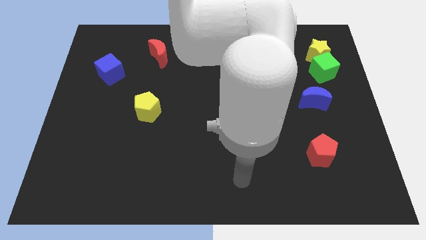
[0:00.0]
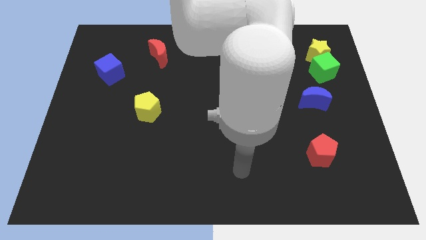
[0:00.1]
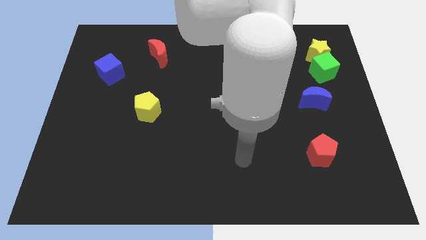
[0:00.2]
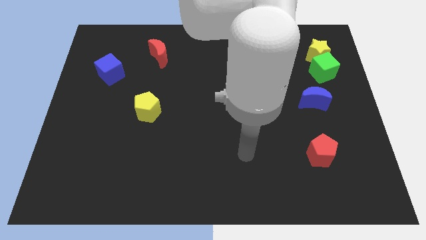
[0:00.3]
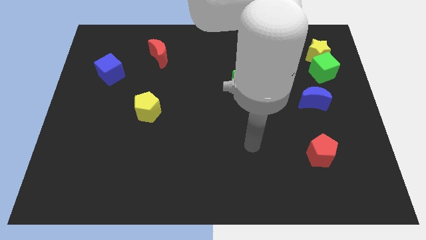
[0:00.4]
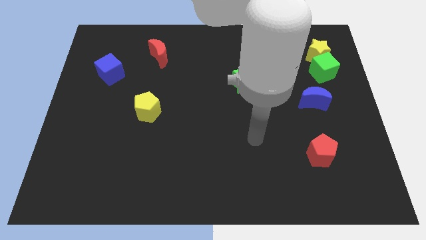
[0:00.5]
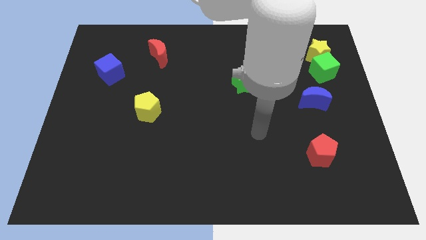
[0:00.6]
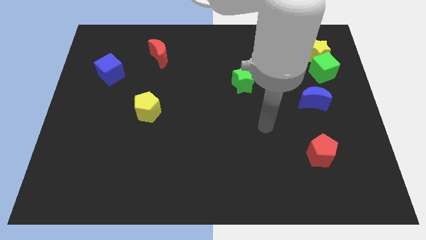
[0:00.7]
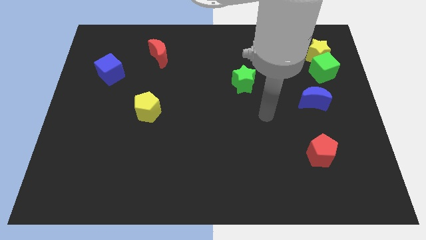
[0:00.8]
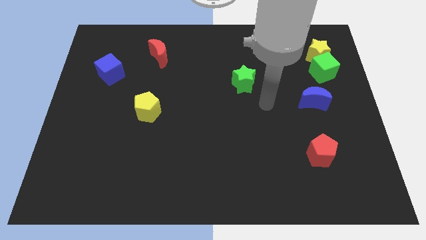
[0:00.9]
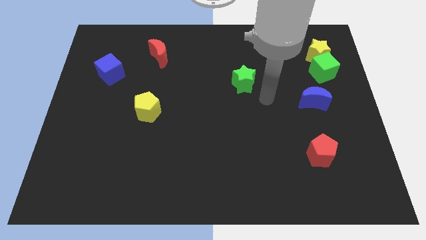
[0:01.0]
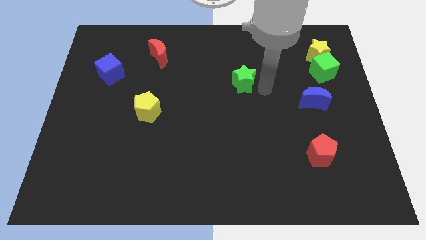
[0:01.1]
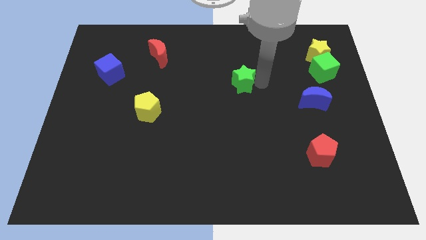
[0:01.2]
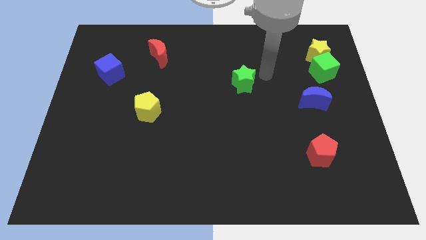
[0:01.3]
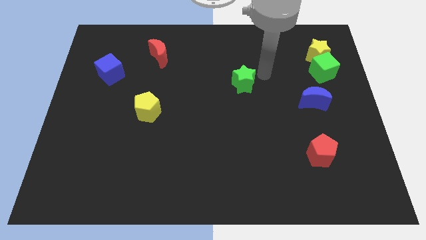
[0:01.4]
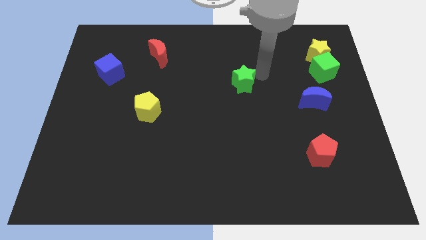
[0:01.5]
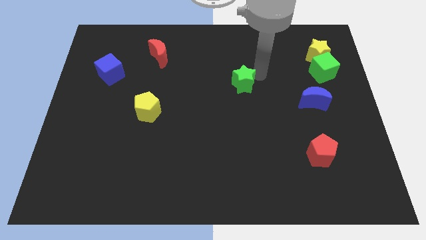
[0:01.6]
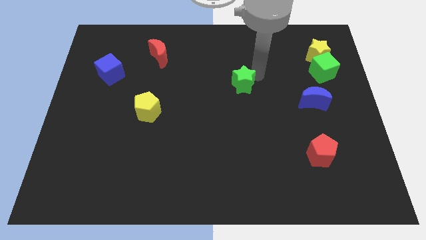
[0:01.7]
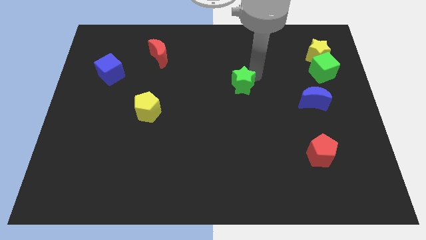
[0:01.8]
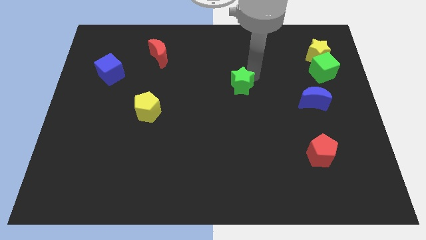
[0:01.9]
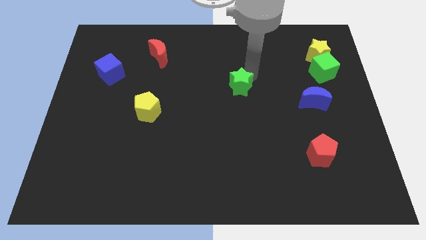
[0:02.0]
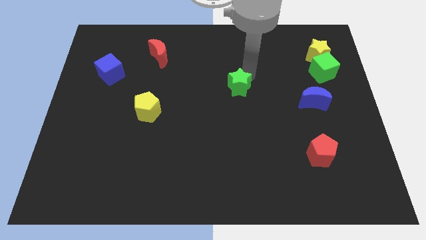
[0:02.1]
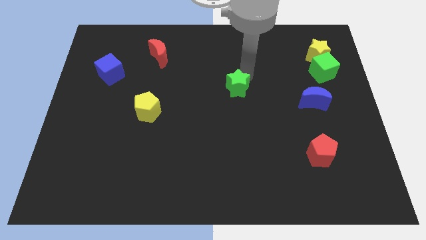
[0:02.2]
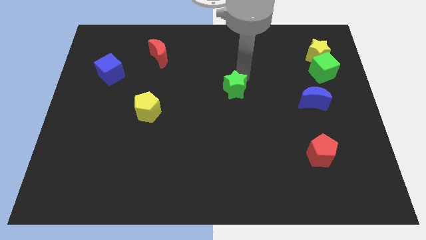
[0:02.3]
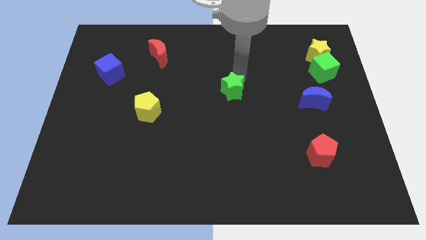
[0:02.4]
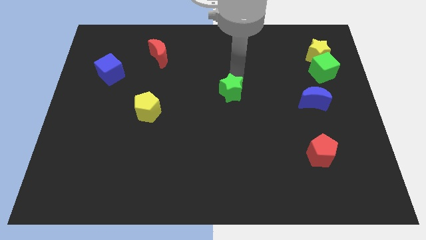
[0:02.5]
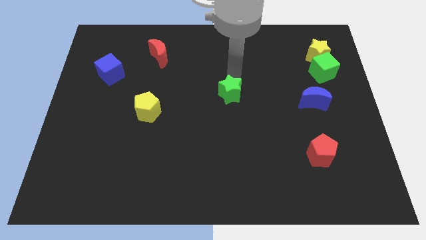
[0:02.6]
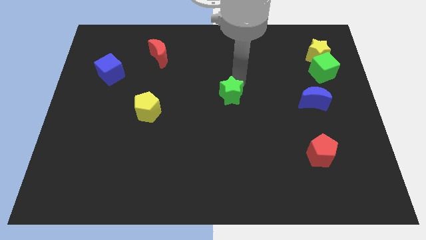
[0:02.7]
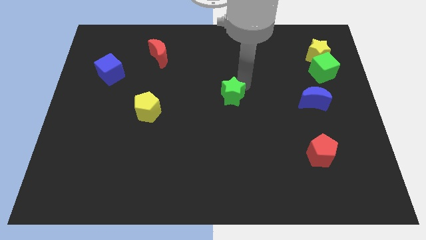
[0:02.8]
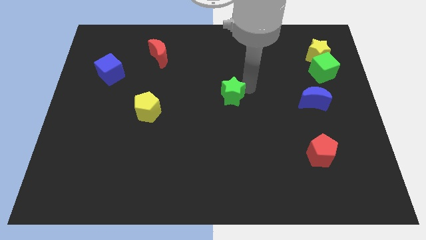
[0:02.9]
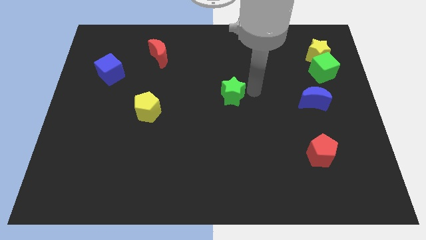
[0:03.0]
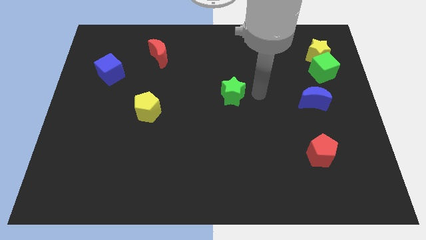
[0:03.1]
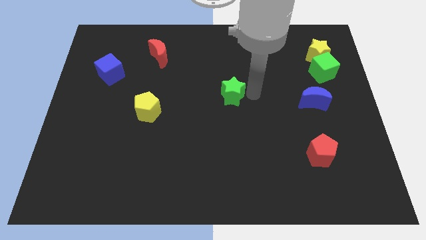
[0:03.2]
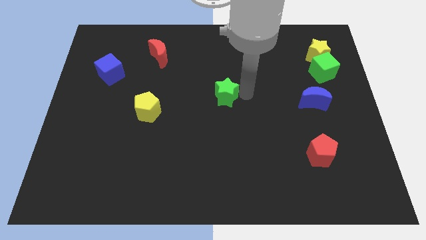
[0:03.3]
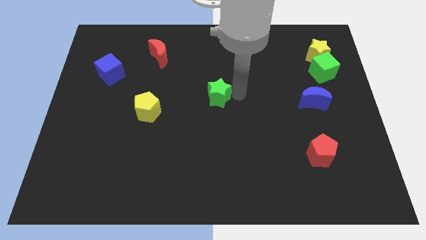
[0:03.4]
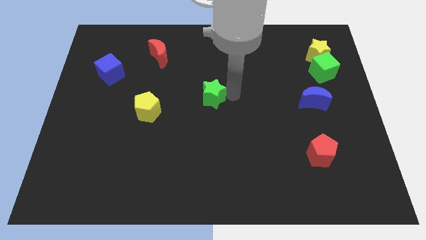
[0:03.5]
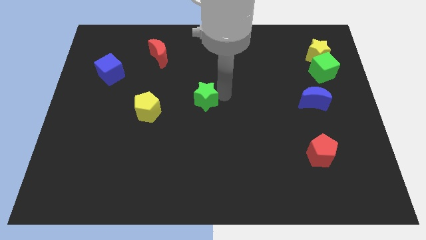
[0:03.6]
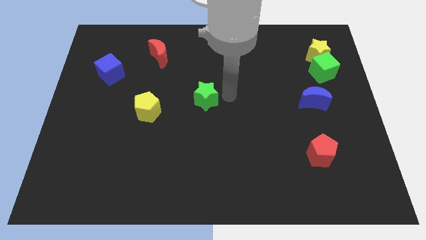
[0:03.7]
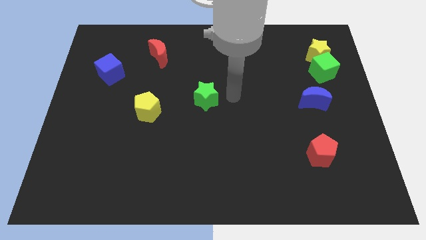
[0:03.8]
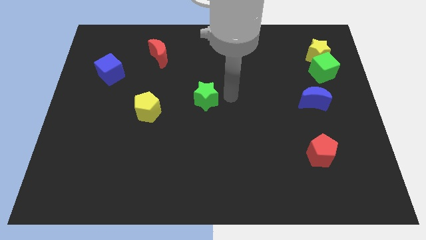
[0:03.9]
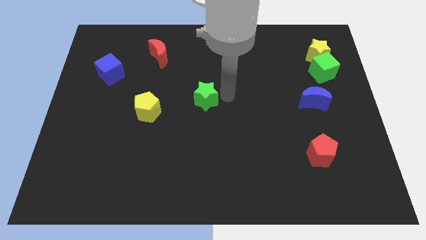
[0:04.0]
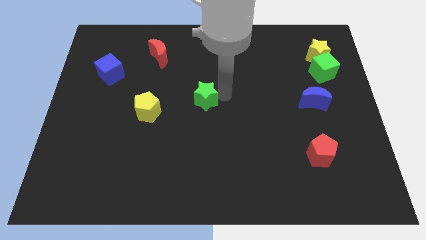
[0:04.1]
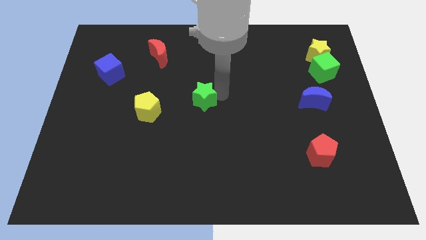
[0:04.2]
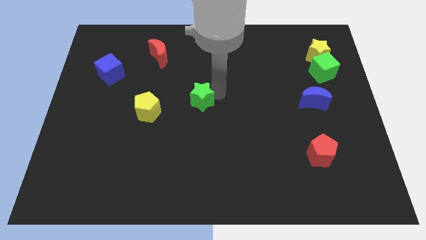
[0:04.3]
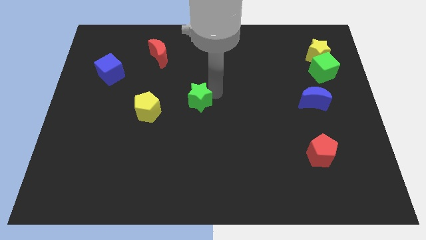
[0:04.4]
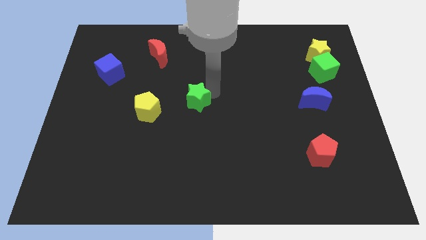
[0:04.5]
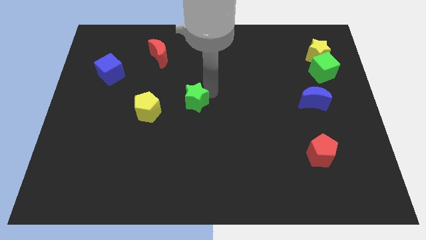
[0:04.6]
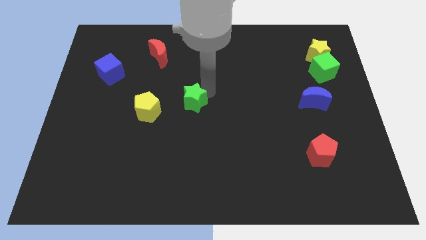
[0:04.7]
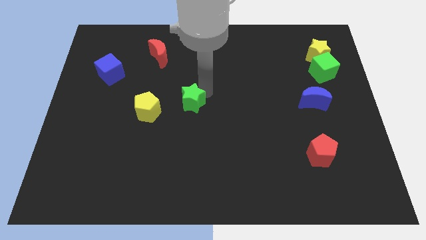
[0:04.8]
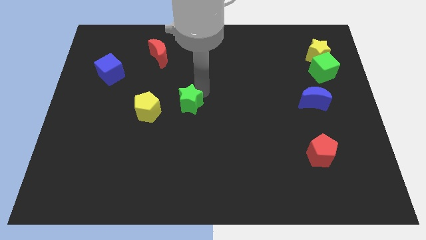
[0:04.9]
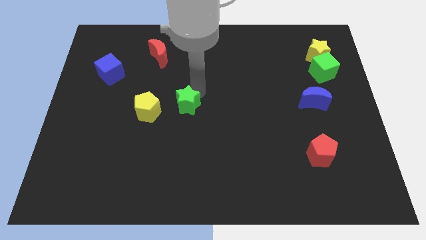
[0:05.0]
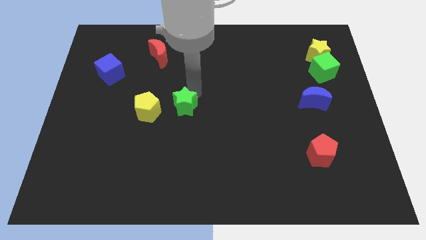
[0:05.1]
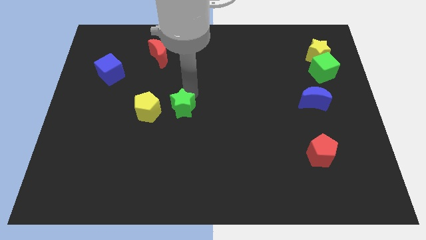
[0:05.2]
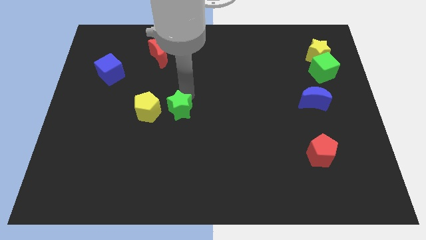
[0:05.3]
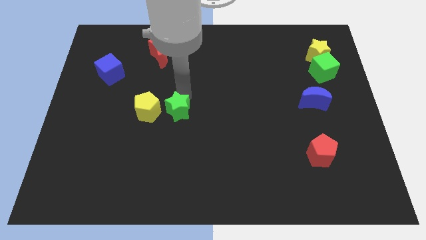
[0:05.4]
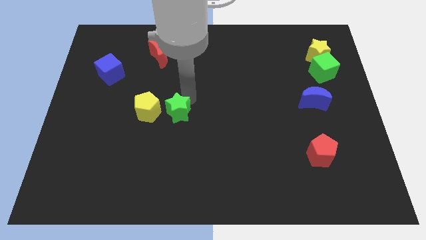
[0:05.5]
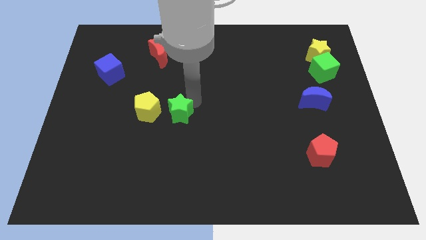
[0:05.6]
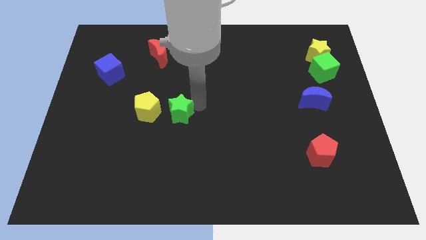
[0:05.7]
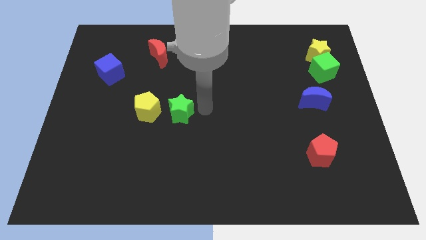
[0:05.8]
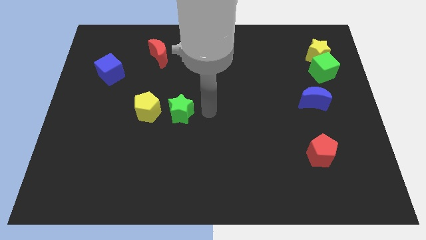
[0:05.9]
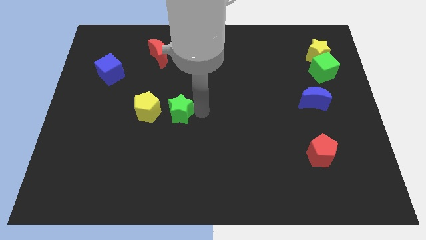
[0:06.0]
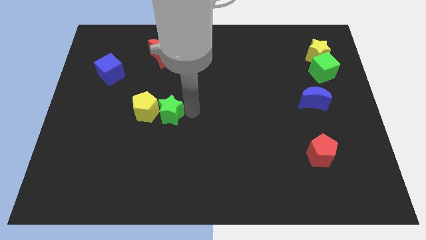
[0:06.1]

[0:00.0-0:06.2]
slide the green star close to the yellow pentagon
